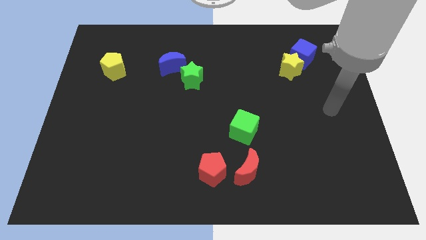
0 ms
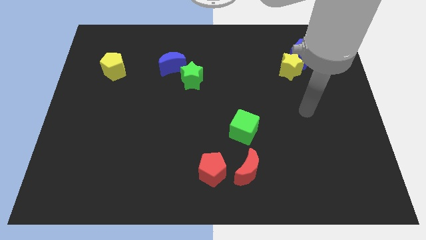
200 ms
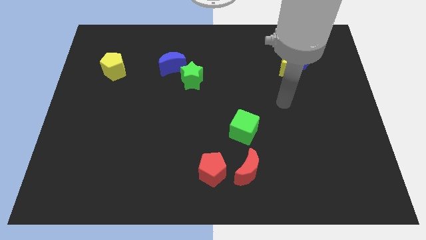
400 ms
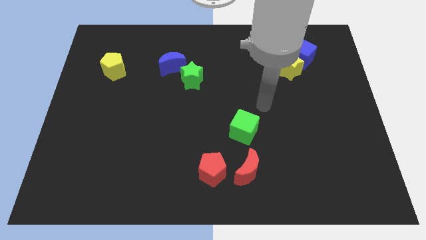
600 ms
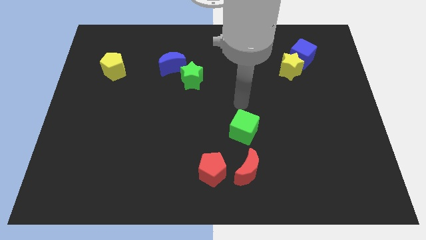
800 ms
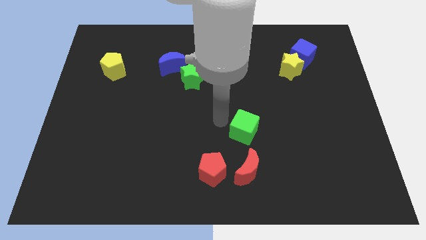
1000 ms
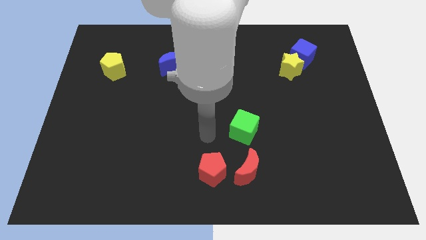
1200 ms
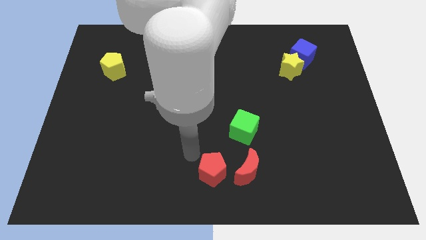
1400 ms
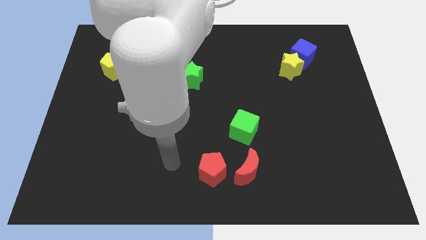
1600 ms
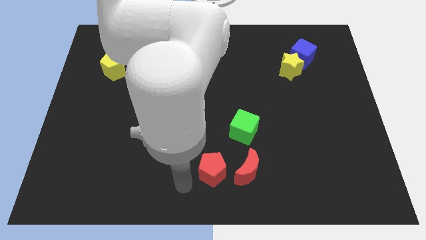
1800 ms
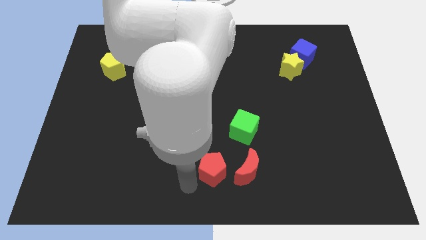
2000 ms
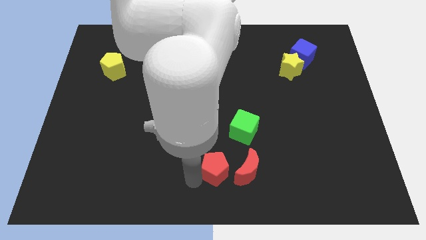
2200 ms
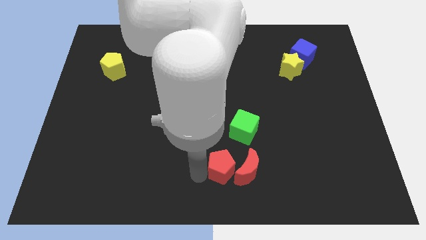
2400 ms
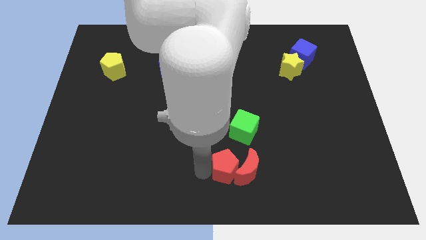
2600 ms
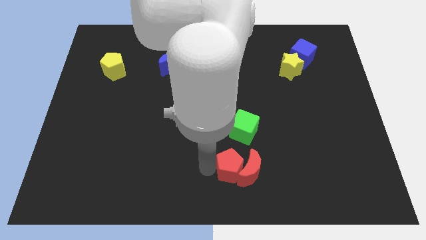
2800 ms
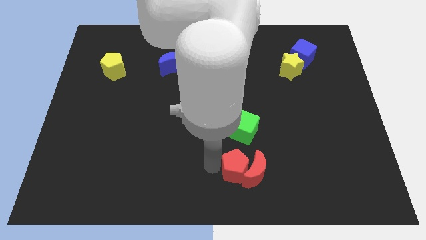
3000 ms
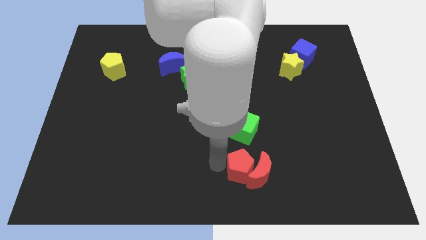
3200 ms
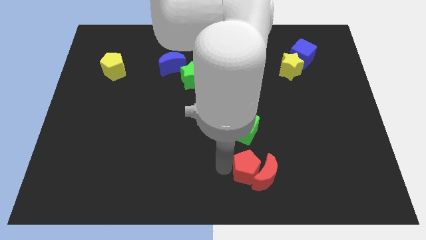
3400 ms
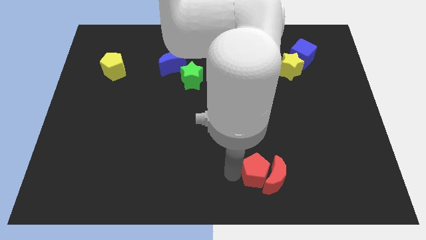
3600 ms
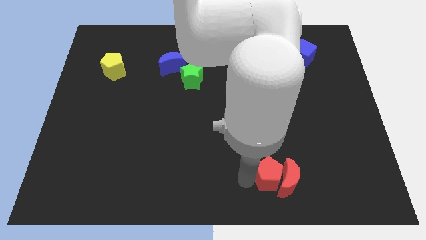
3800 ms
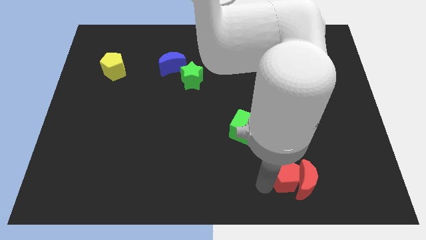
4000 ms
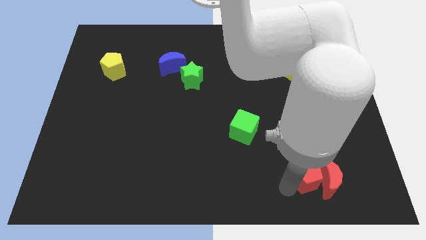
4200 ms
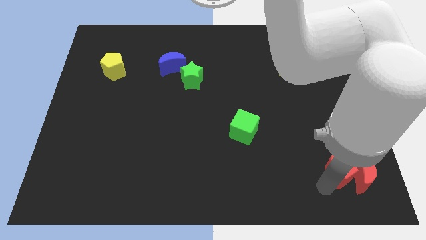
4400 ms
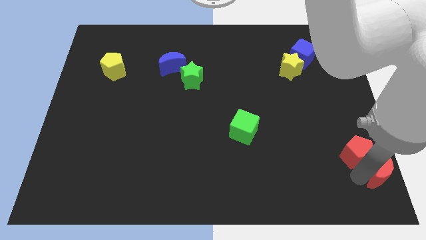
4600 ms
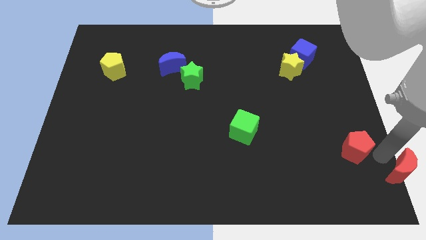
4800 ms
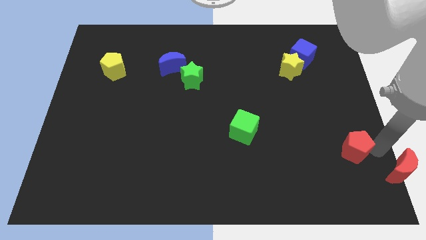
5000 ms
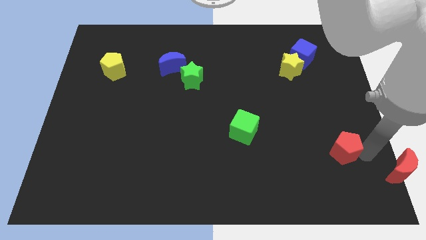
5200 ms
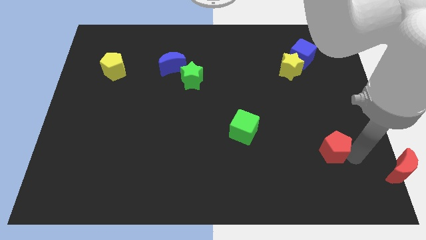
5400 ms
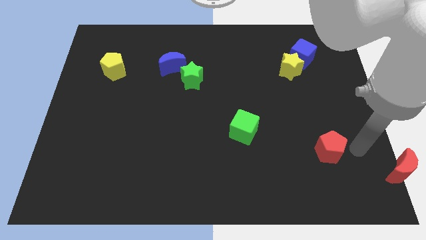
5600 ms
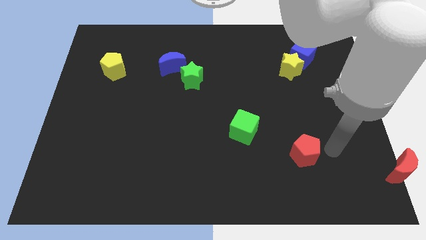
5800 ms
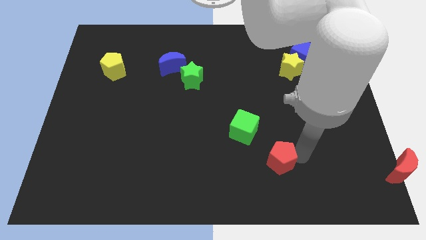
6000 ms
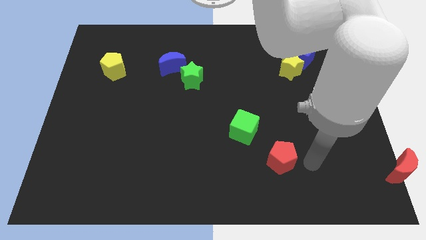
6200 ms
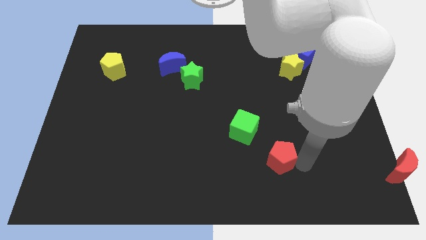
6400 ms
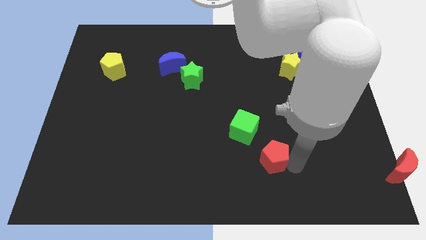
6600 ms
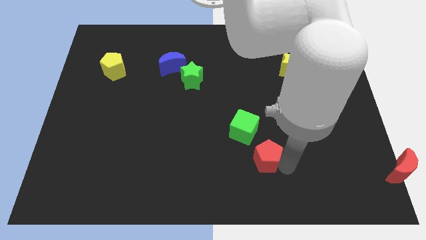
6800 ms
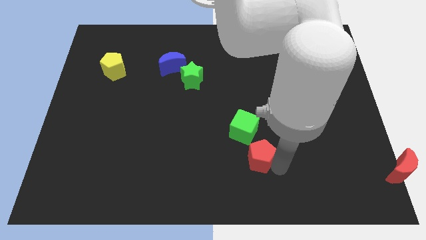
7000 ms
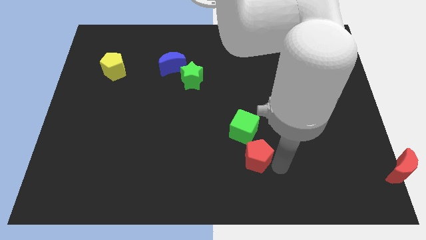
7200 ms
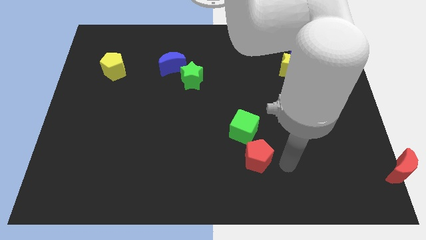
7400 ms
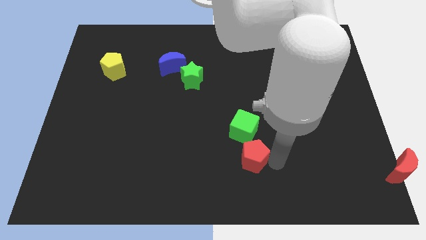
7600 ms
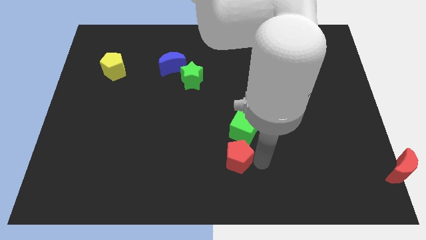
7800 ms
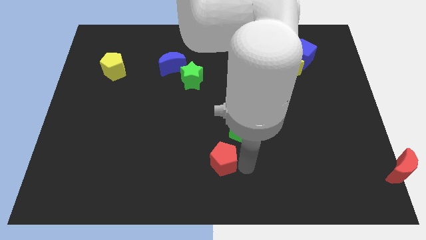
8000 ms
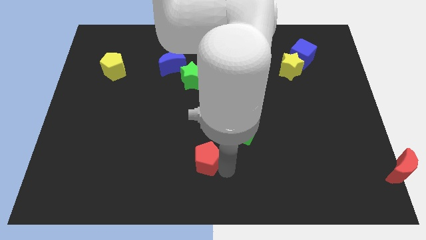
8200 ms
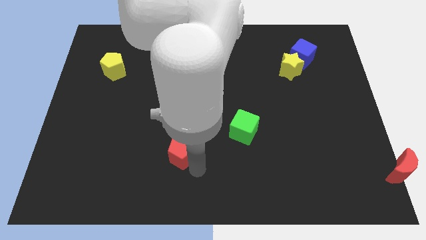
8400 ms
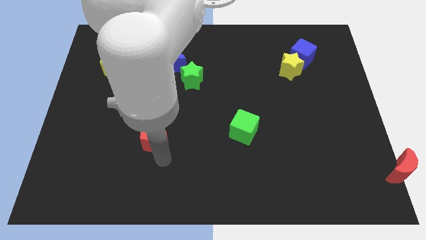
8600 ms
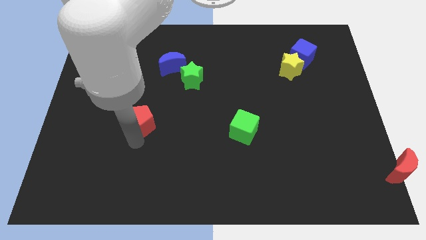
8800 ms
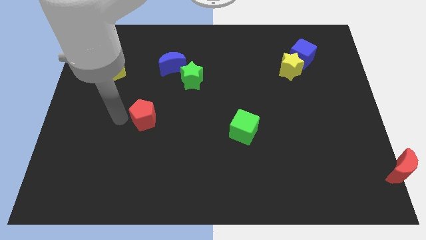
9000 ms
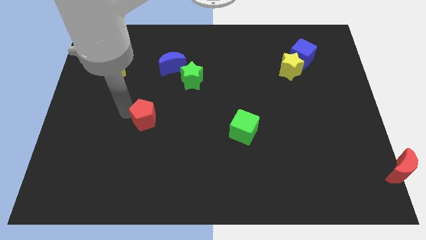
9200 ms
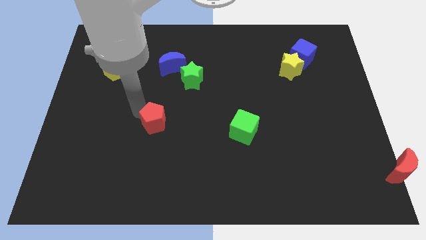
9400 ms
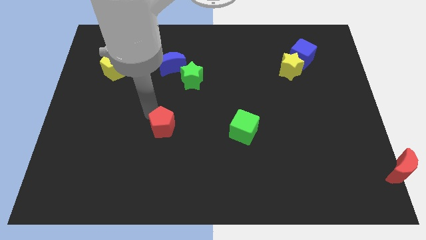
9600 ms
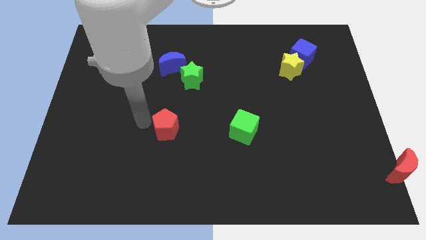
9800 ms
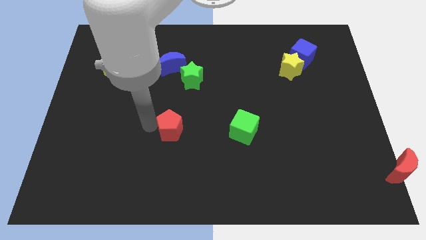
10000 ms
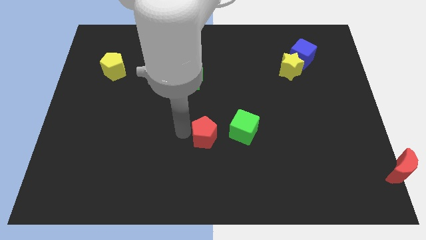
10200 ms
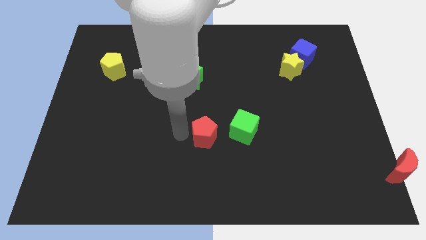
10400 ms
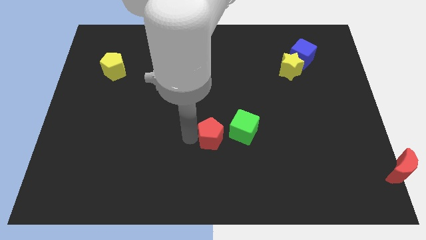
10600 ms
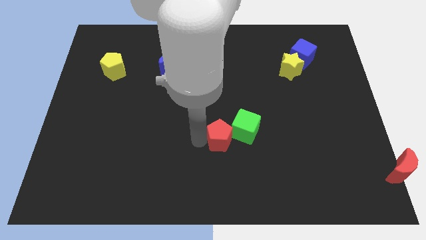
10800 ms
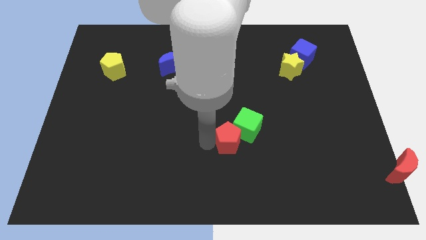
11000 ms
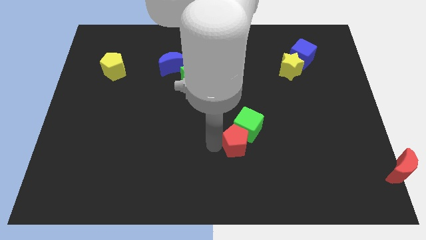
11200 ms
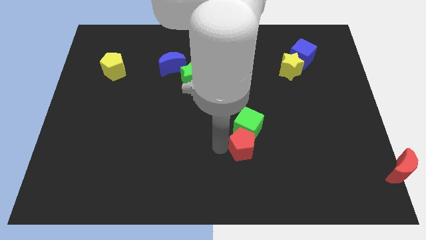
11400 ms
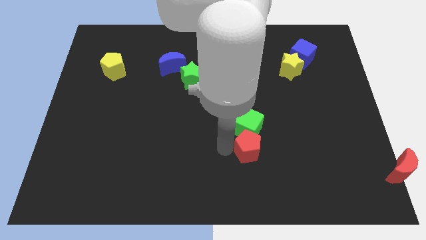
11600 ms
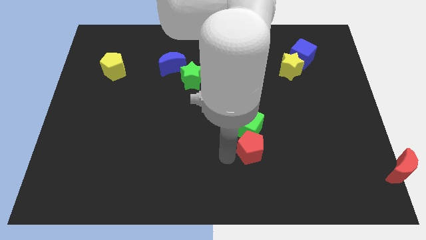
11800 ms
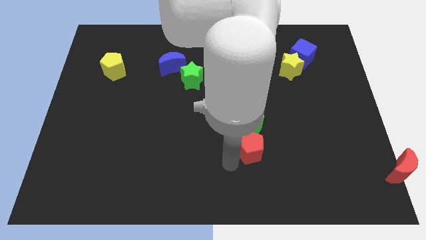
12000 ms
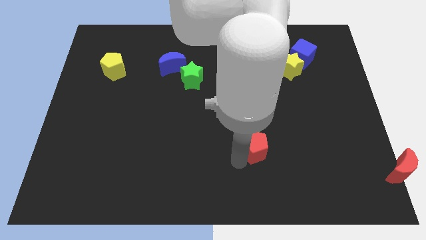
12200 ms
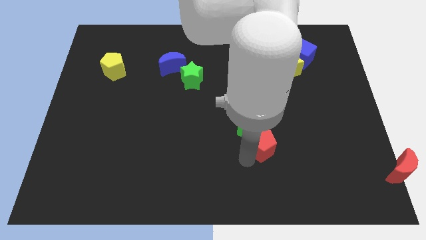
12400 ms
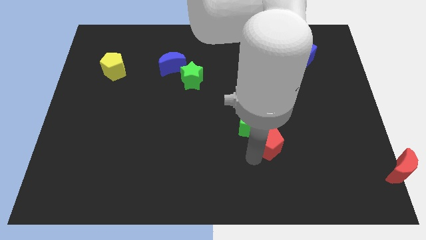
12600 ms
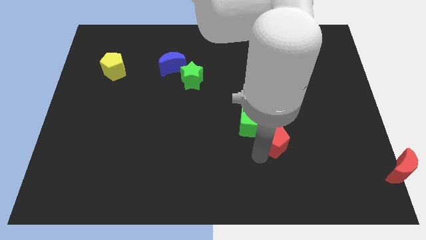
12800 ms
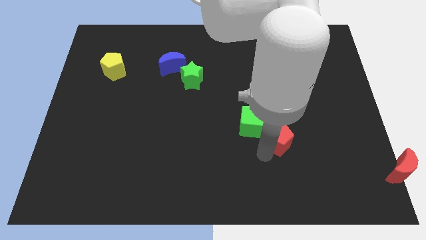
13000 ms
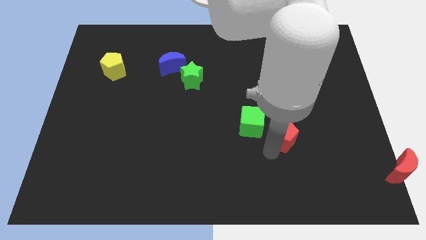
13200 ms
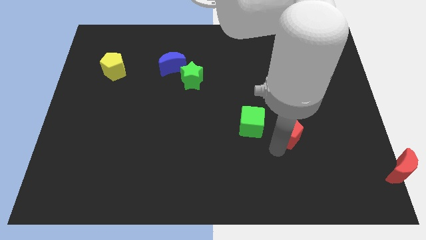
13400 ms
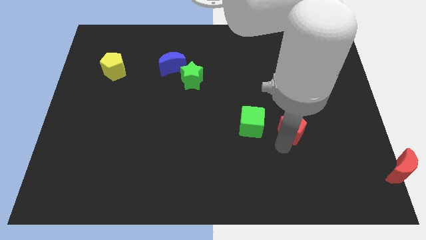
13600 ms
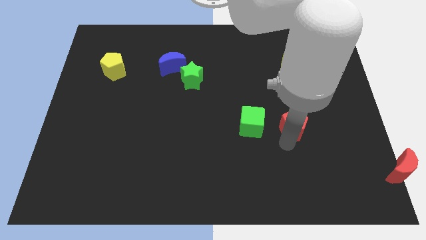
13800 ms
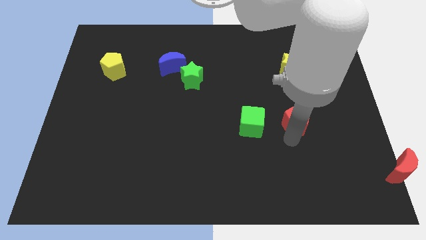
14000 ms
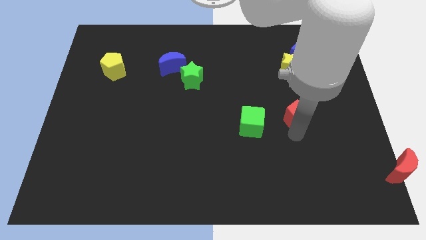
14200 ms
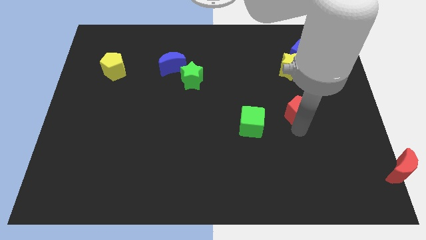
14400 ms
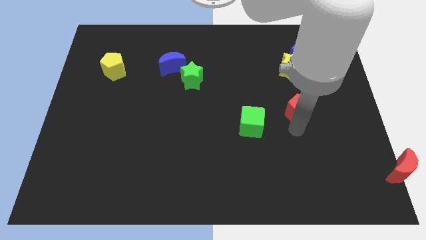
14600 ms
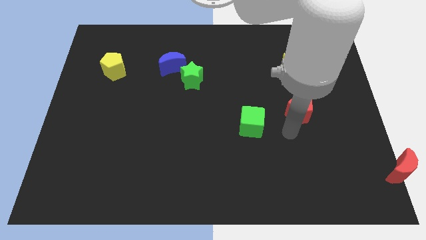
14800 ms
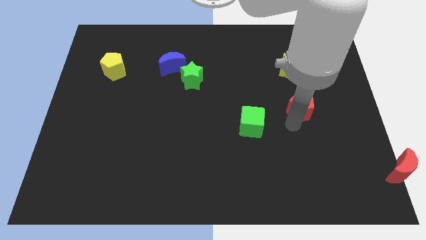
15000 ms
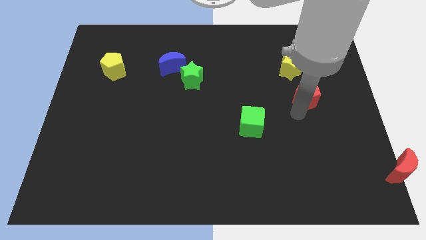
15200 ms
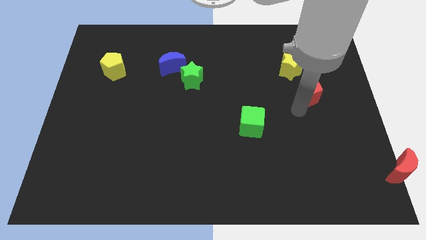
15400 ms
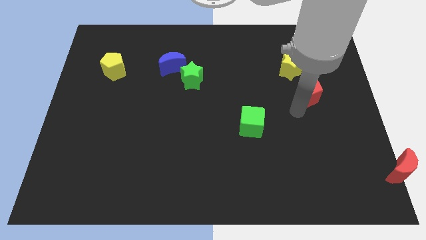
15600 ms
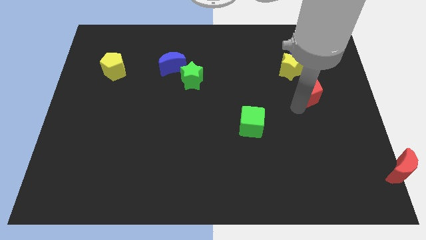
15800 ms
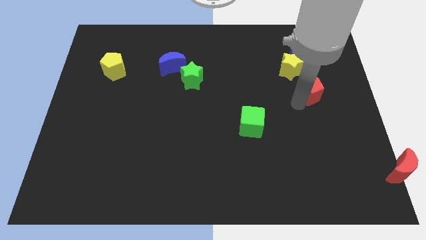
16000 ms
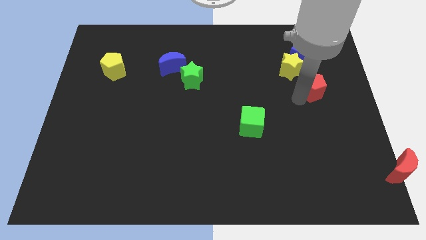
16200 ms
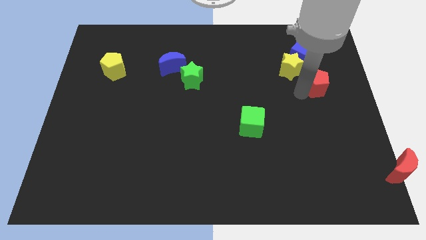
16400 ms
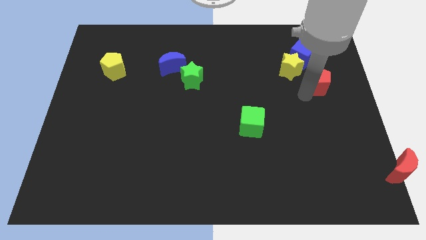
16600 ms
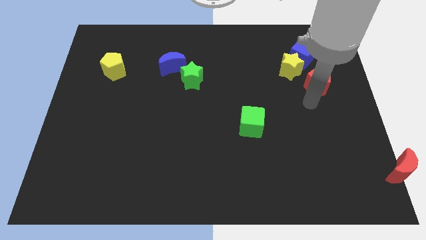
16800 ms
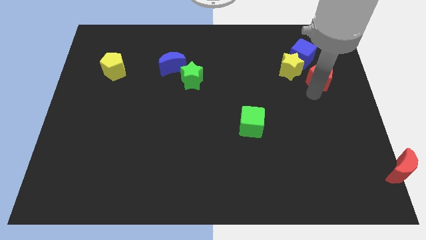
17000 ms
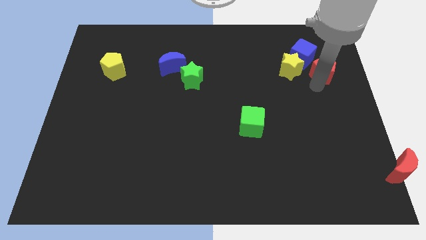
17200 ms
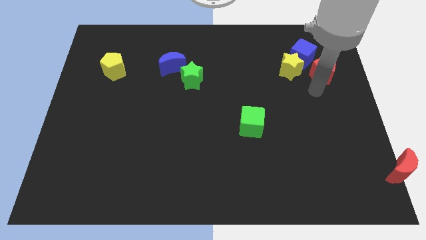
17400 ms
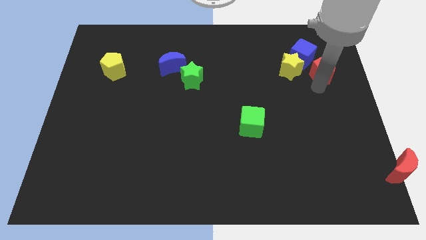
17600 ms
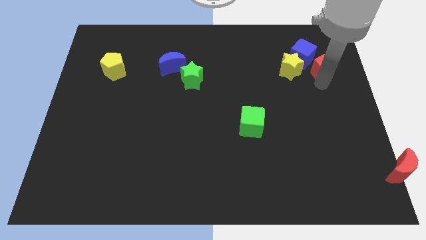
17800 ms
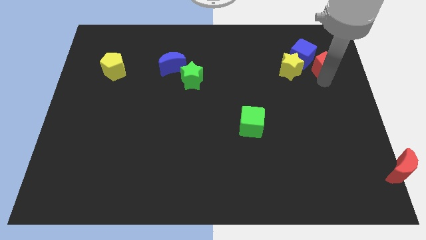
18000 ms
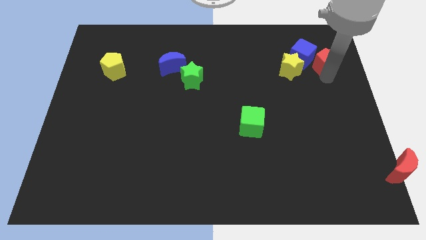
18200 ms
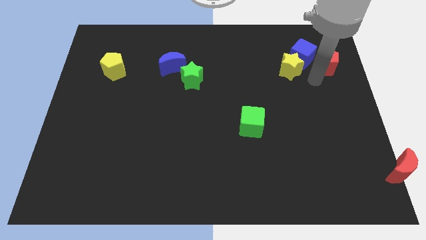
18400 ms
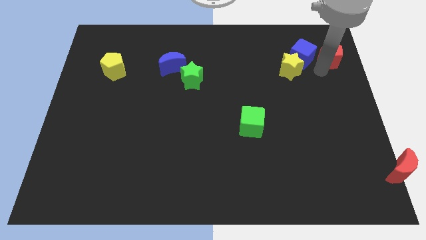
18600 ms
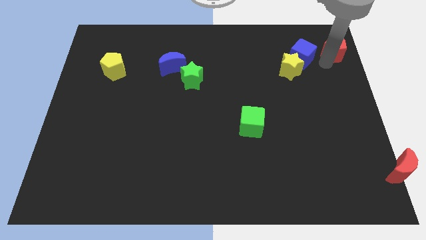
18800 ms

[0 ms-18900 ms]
push the red pentagon to the top right
